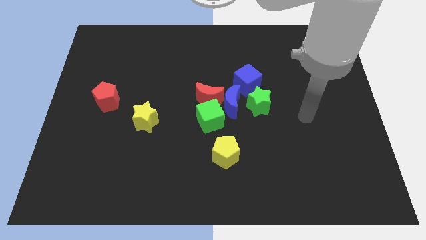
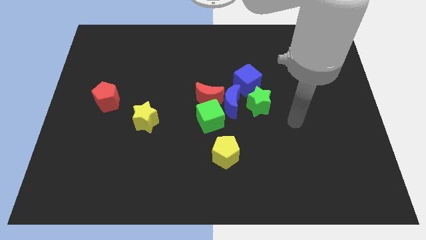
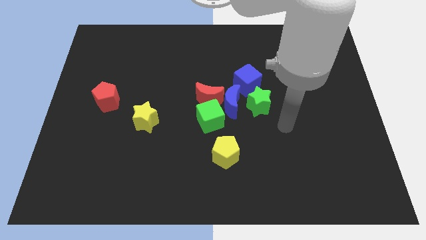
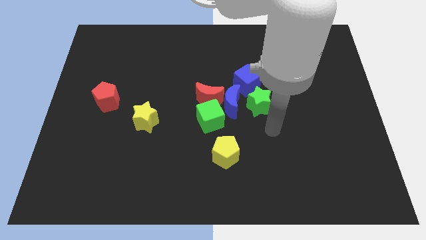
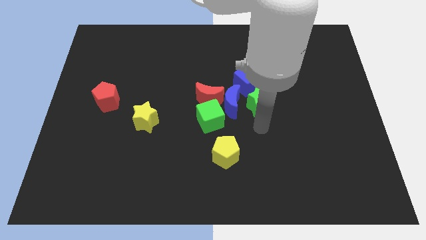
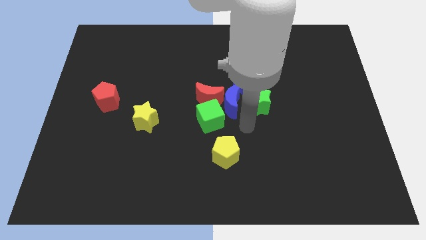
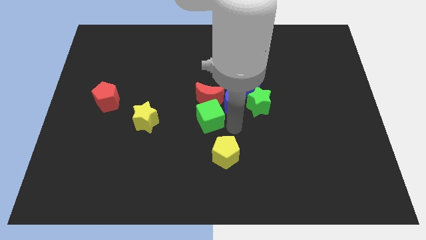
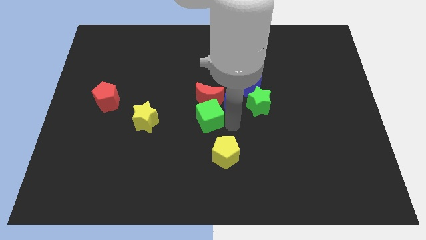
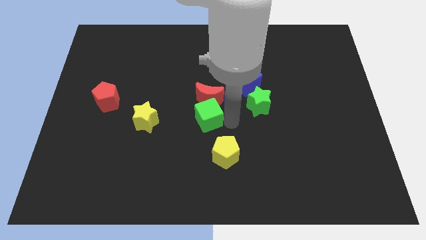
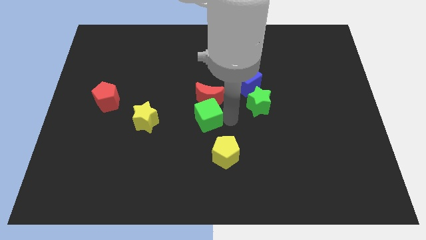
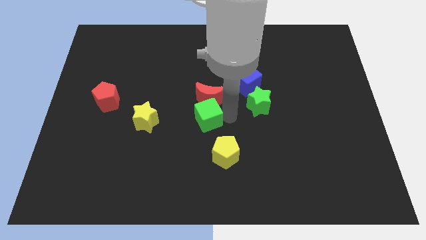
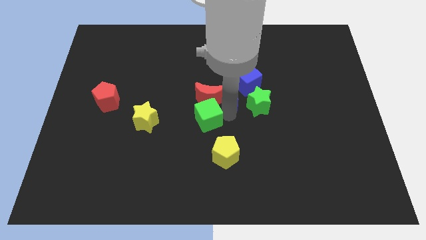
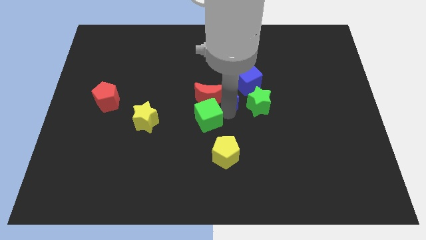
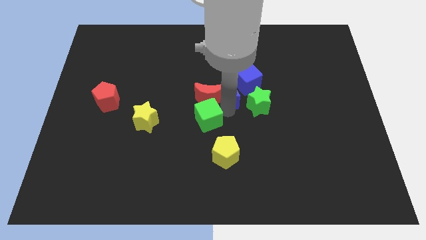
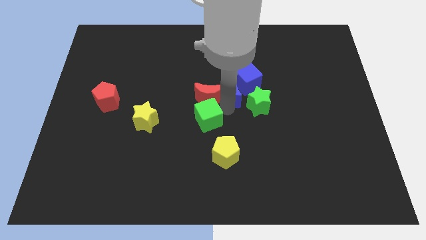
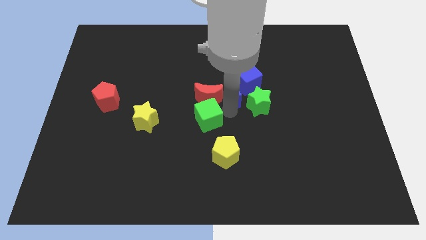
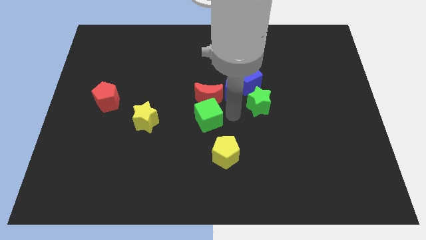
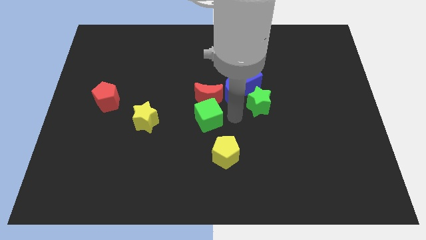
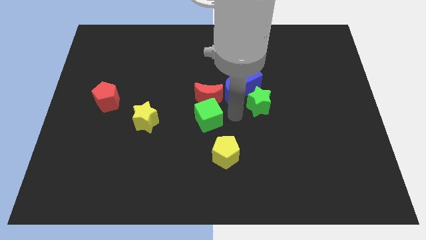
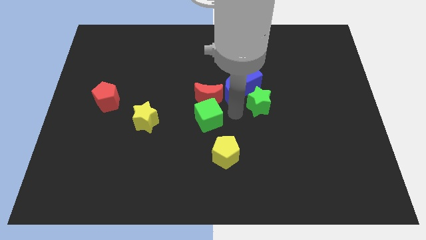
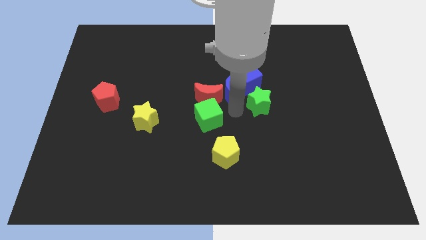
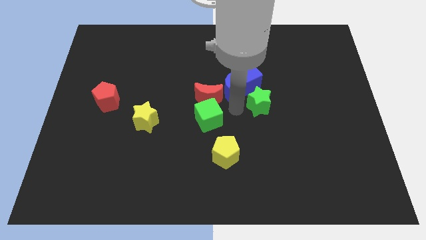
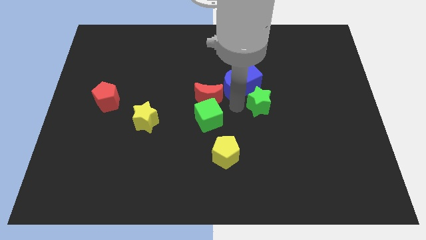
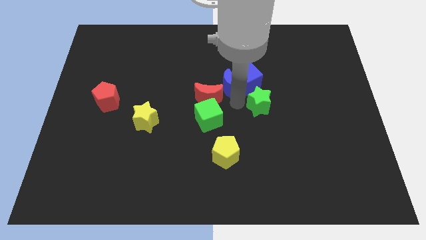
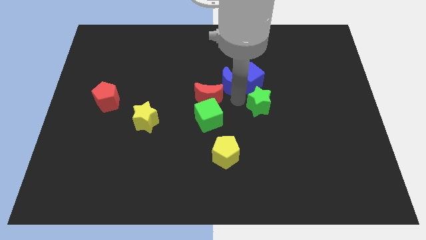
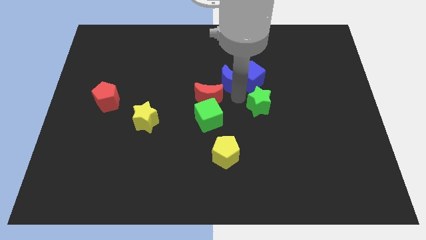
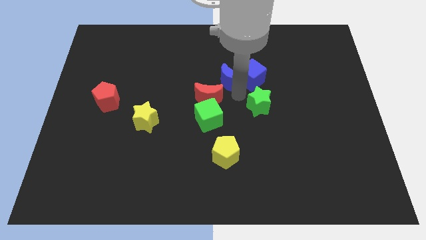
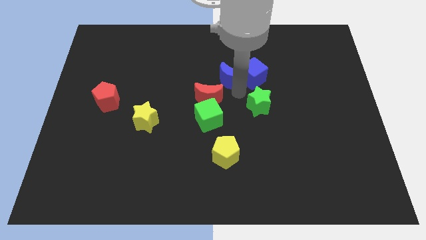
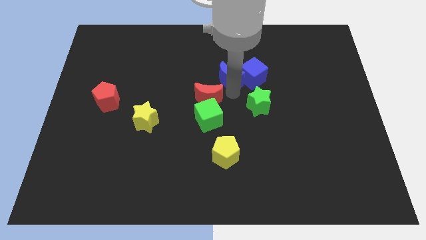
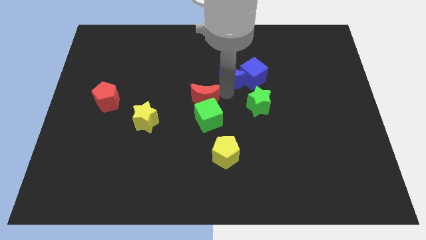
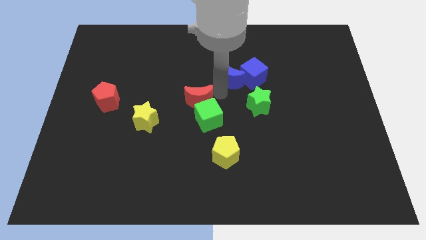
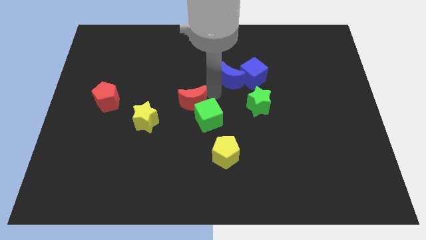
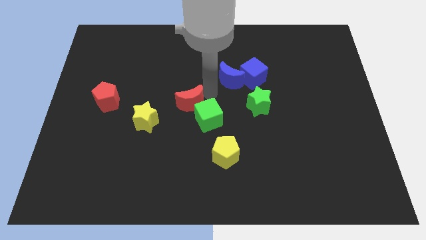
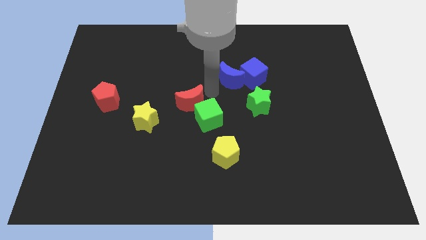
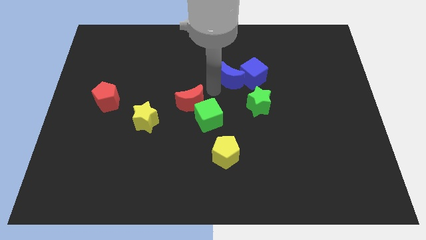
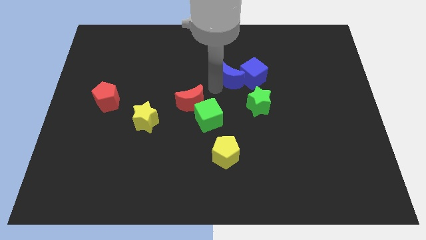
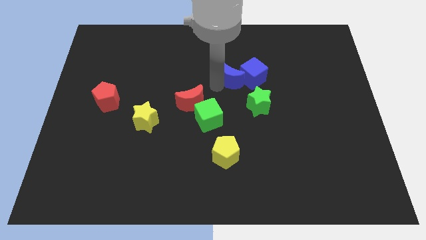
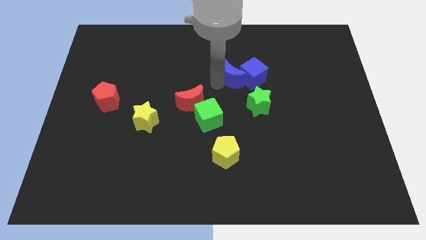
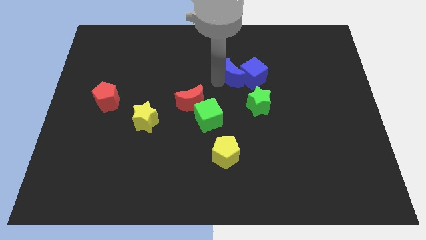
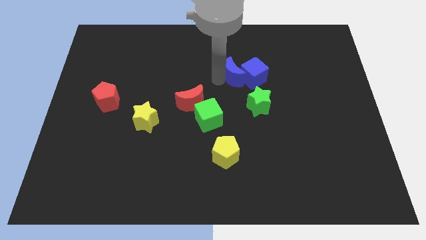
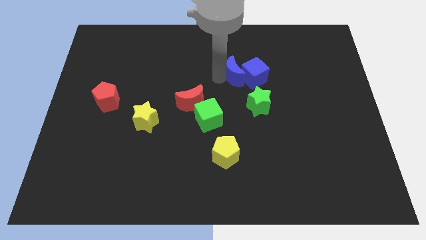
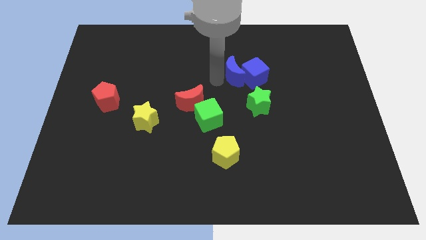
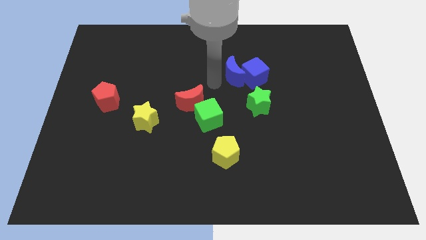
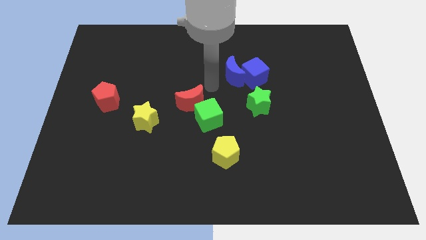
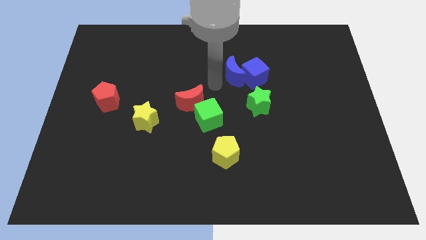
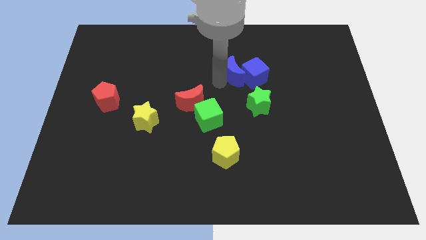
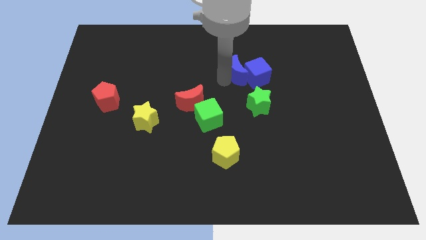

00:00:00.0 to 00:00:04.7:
push the blue moon to the top side of the green star

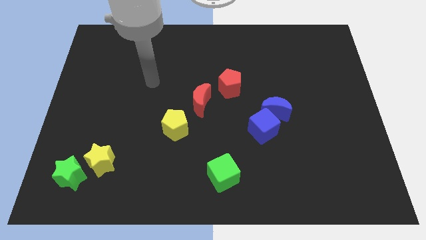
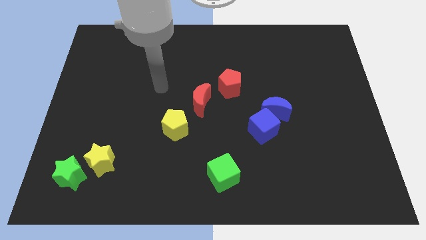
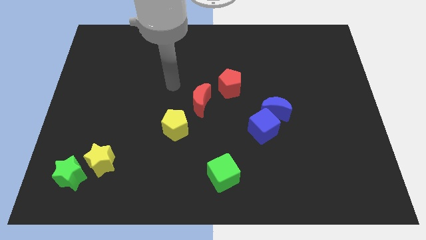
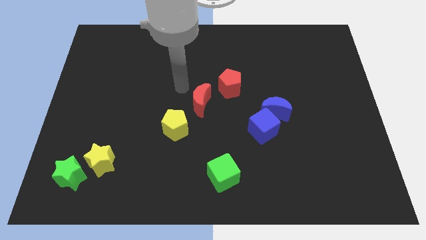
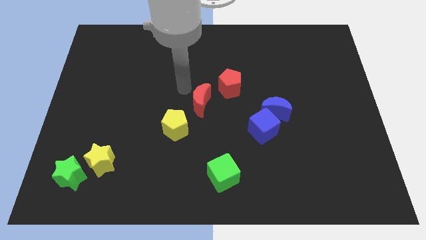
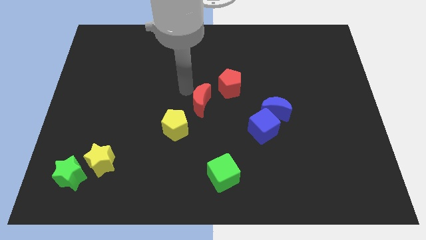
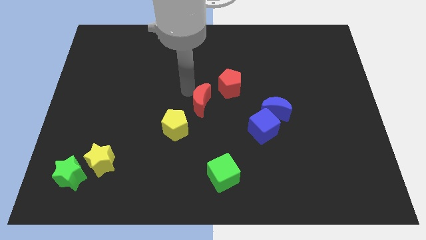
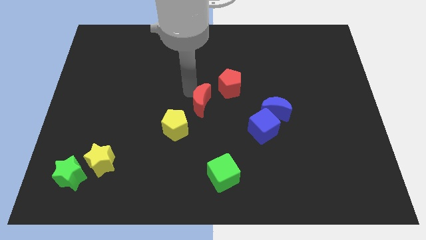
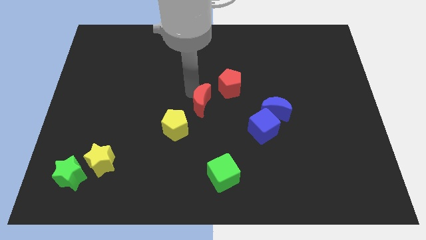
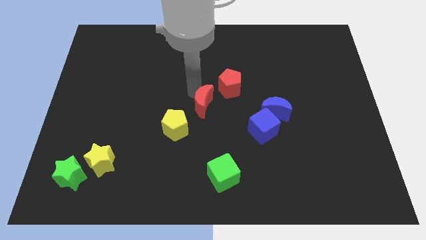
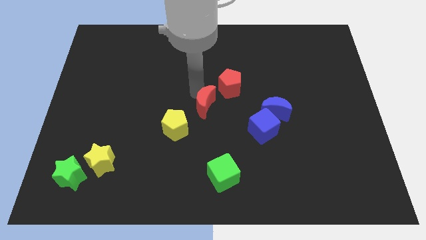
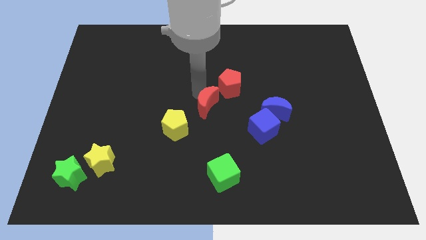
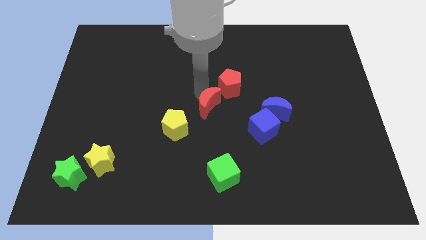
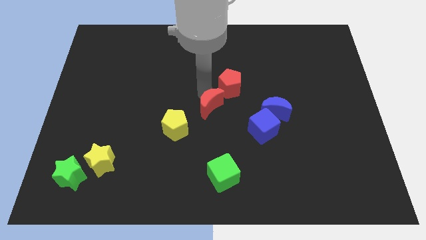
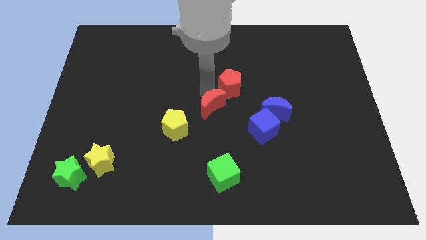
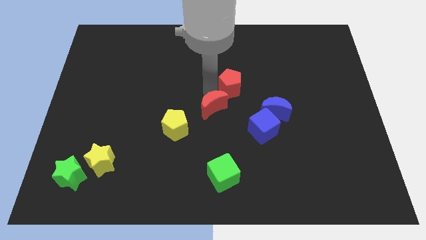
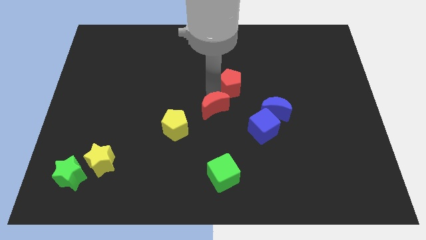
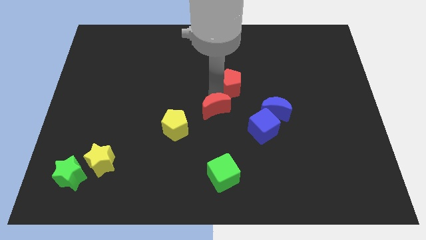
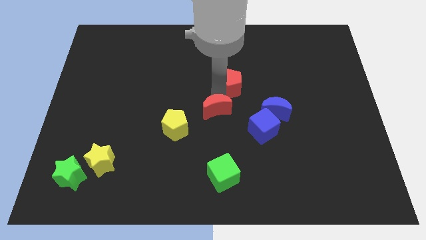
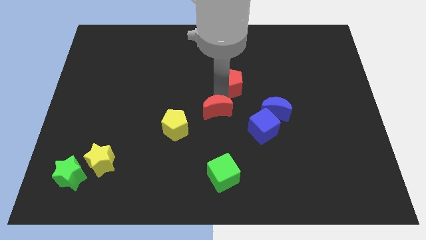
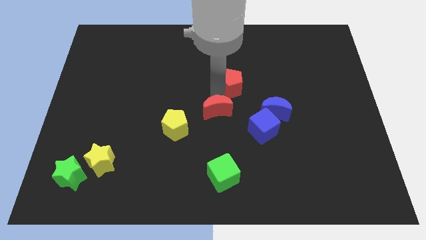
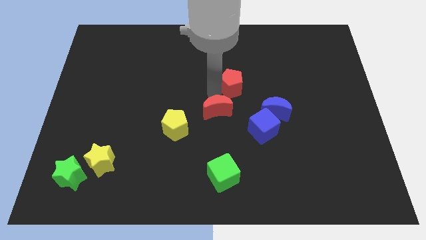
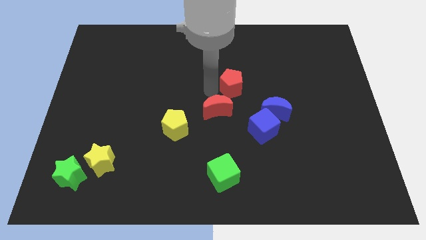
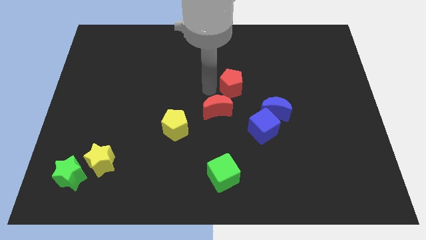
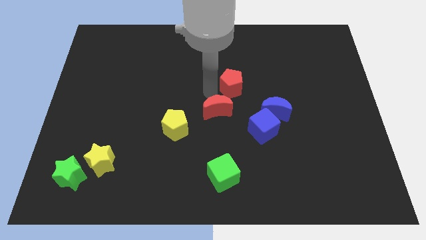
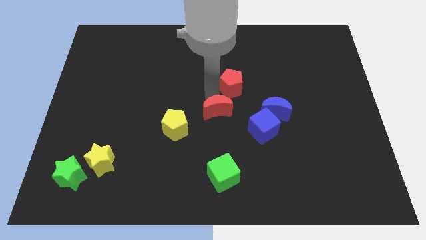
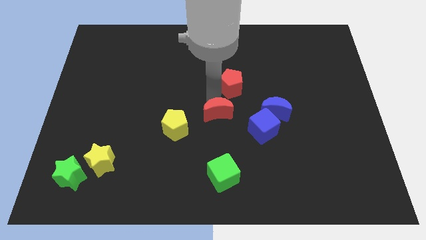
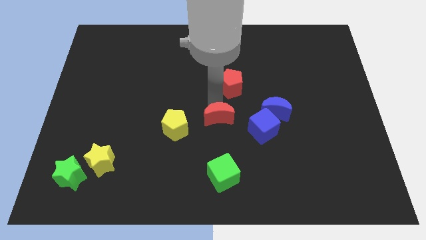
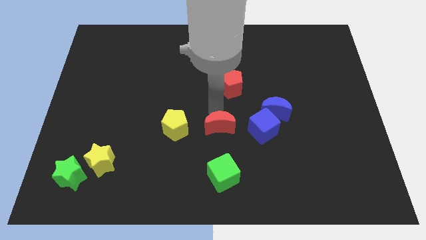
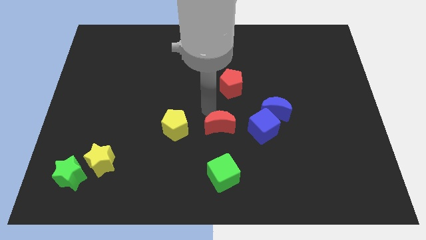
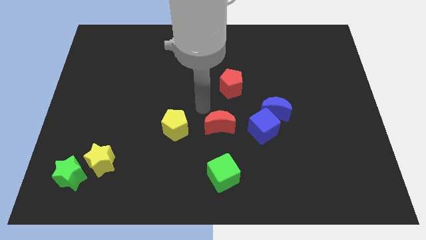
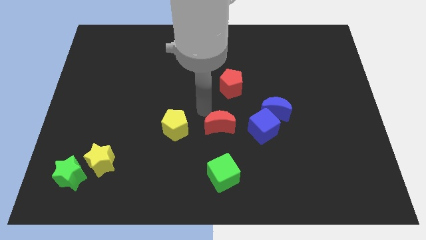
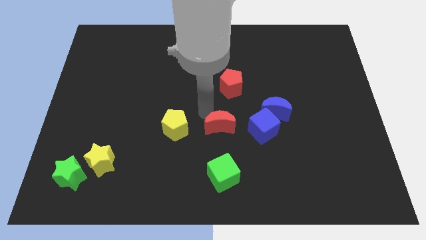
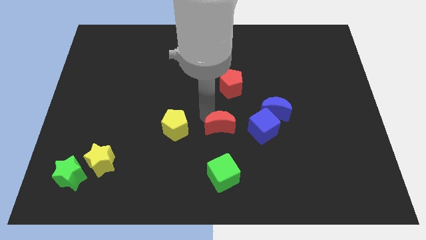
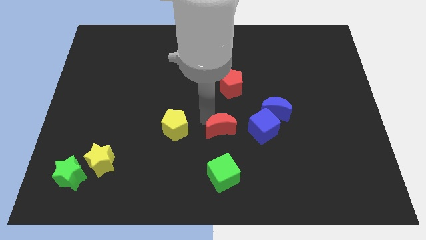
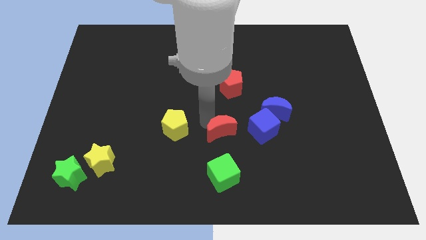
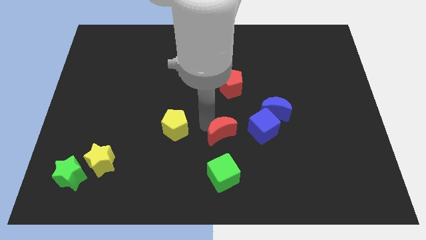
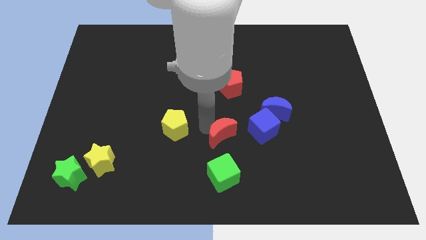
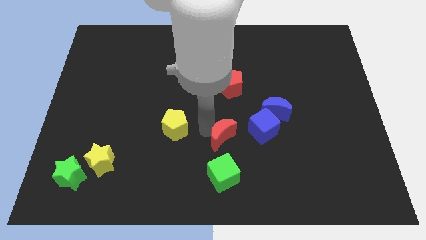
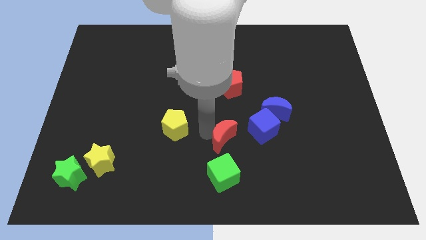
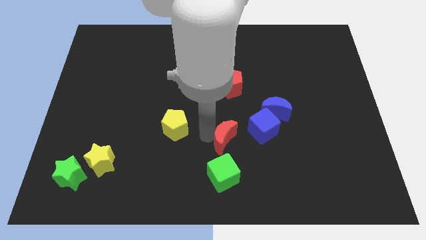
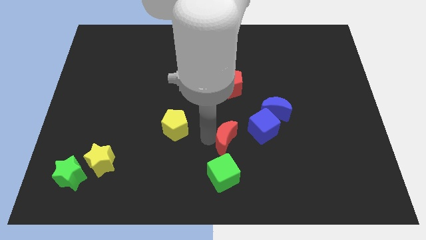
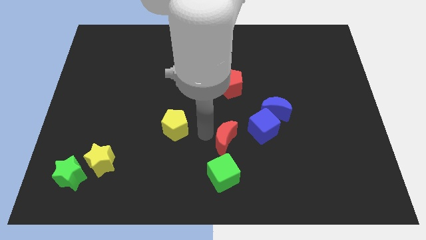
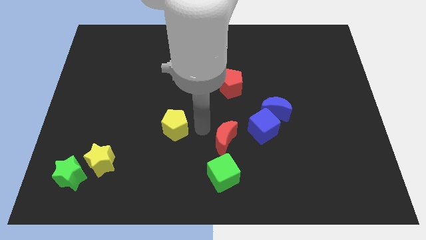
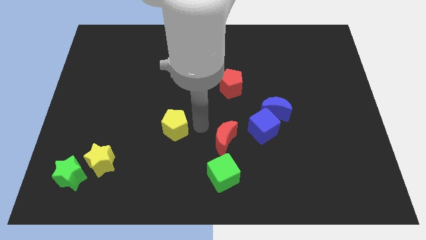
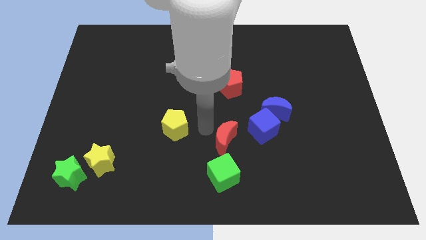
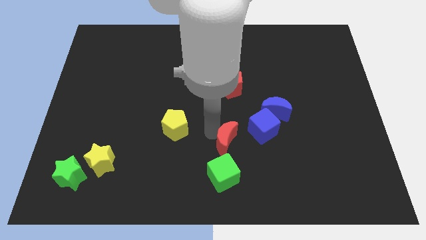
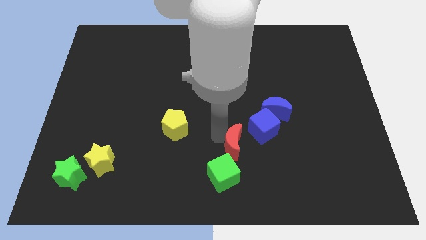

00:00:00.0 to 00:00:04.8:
move the red moon diagonally up and to the right of the green cube
